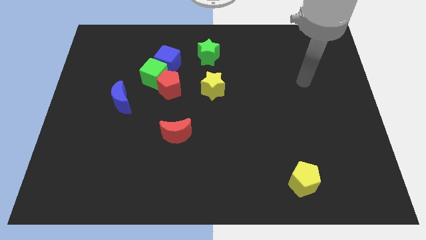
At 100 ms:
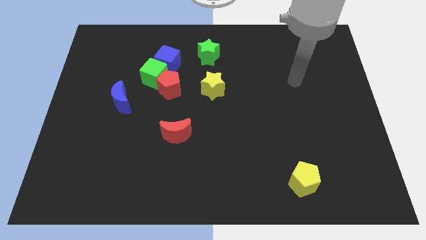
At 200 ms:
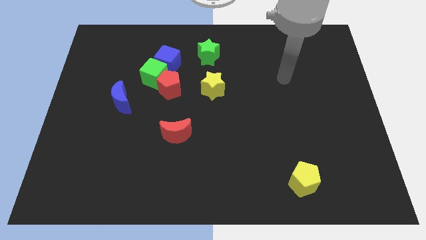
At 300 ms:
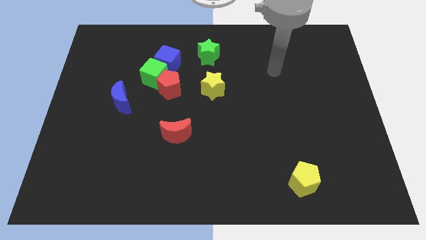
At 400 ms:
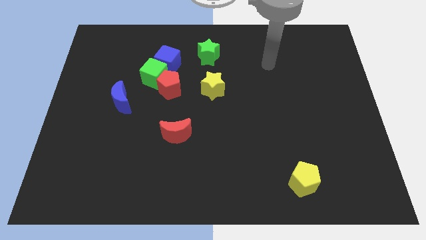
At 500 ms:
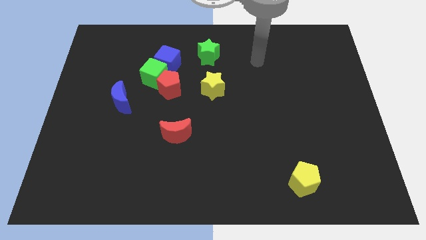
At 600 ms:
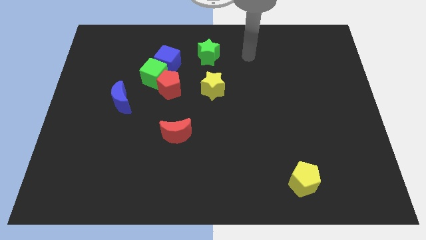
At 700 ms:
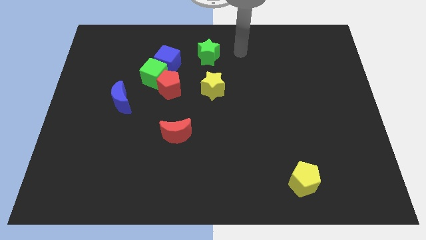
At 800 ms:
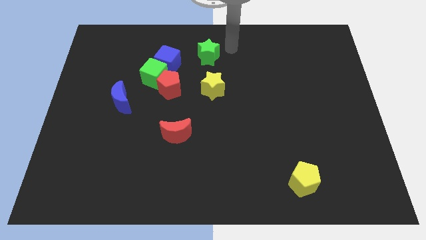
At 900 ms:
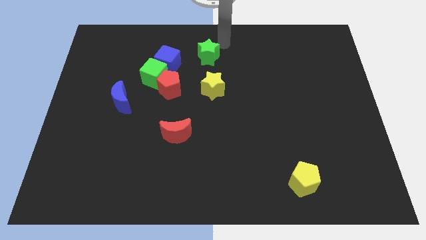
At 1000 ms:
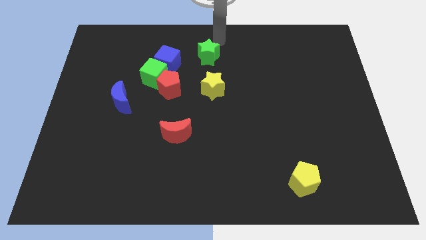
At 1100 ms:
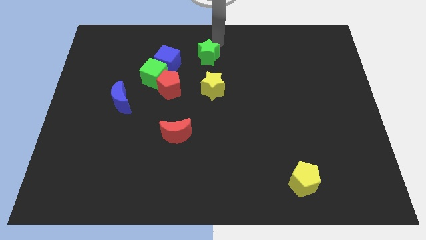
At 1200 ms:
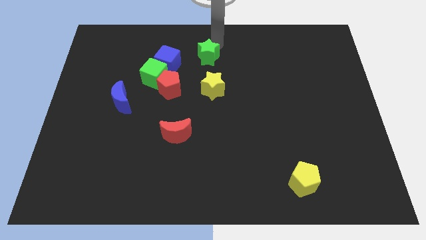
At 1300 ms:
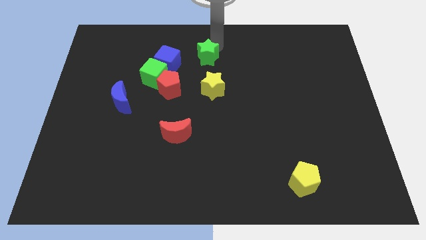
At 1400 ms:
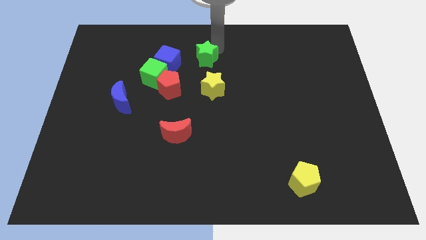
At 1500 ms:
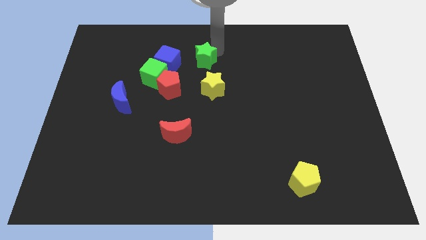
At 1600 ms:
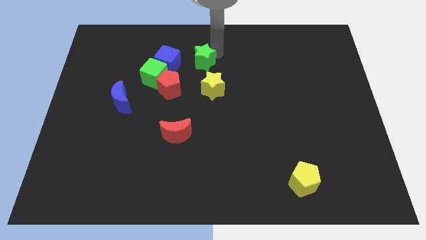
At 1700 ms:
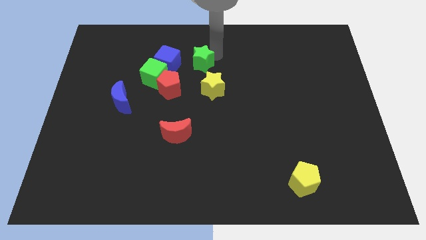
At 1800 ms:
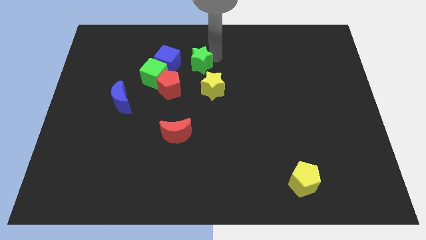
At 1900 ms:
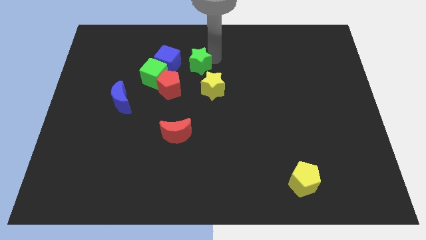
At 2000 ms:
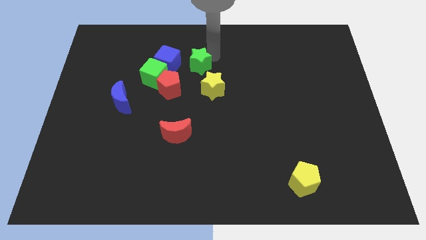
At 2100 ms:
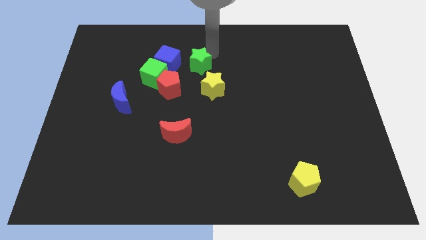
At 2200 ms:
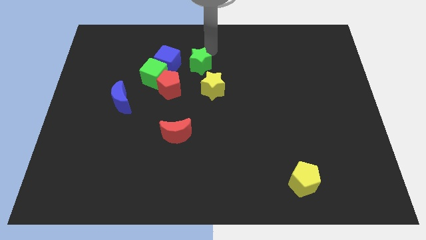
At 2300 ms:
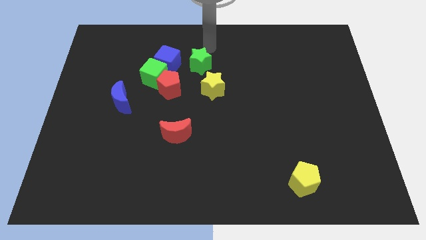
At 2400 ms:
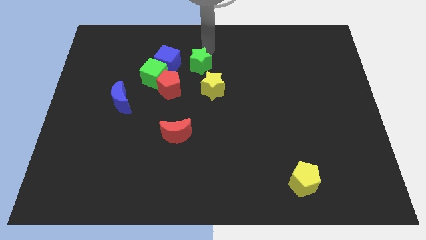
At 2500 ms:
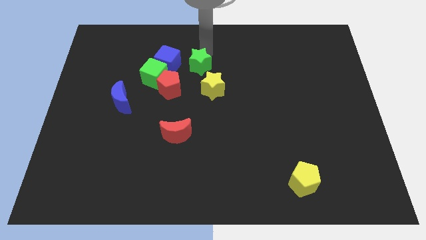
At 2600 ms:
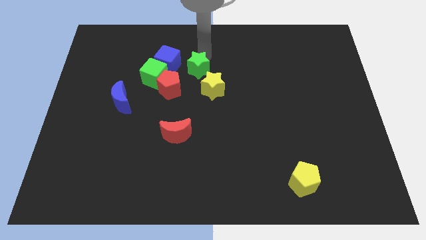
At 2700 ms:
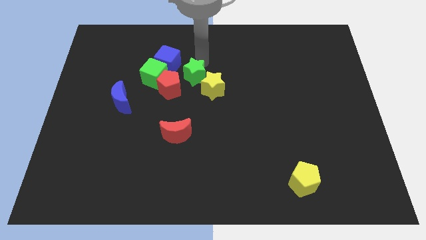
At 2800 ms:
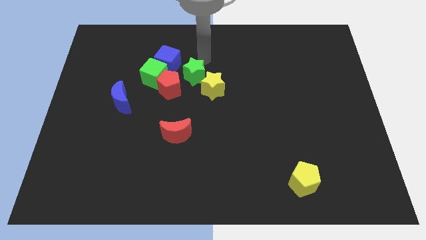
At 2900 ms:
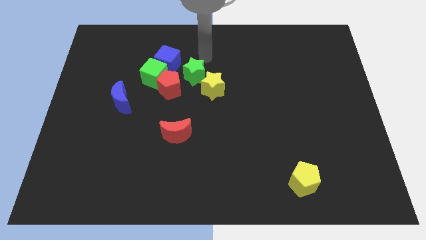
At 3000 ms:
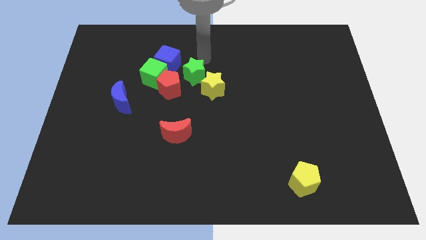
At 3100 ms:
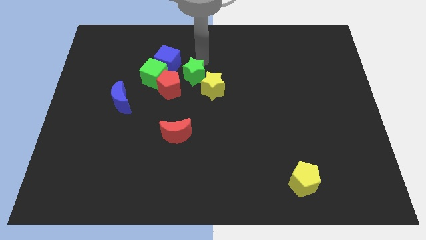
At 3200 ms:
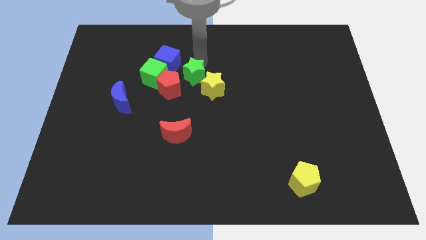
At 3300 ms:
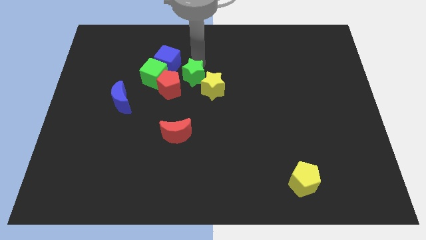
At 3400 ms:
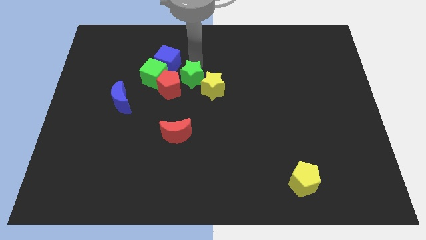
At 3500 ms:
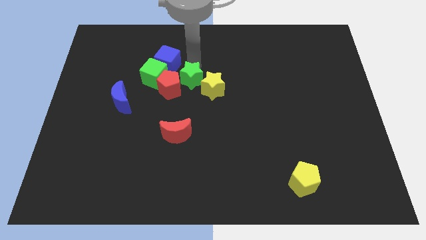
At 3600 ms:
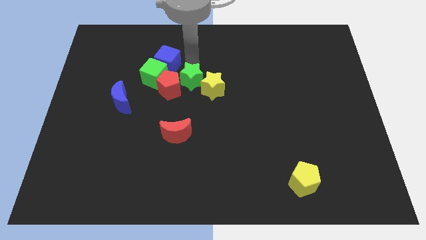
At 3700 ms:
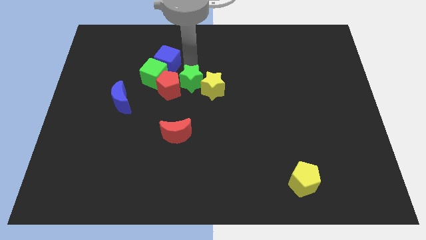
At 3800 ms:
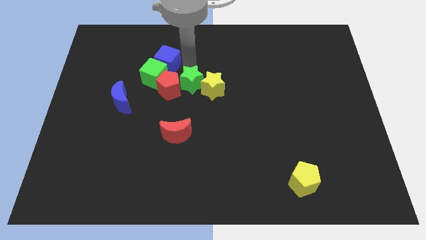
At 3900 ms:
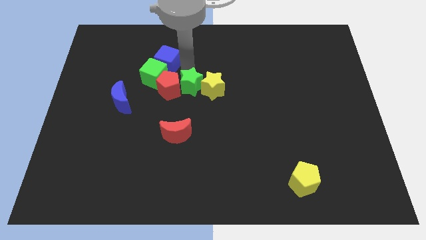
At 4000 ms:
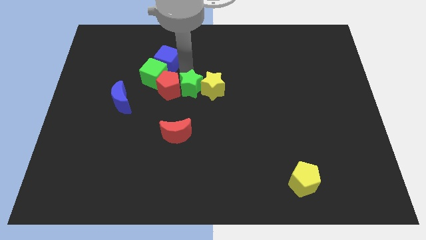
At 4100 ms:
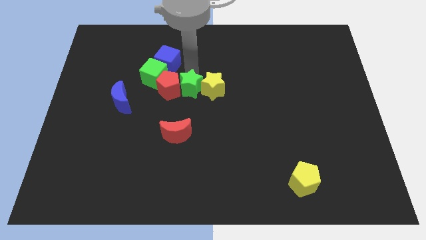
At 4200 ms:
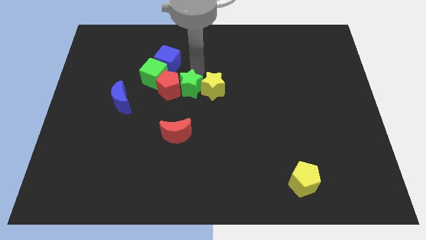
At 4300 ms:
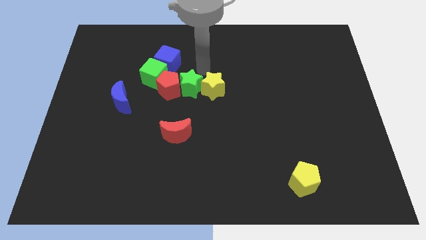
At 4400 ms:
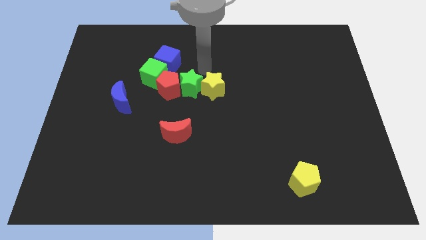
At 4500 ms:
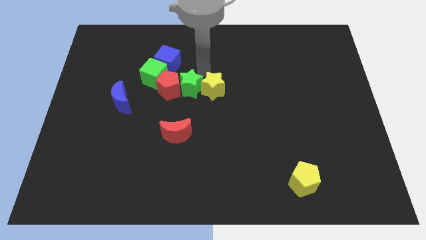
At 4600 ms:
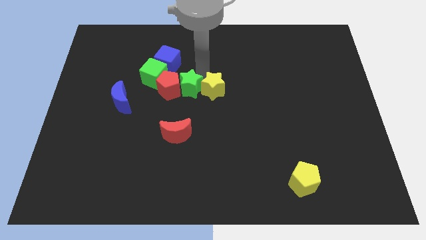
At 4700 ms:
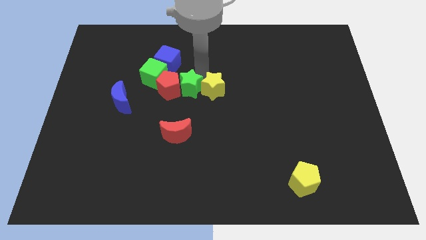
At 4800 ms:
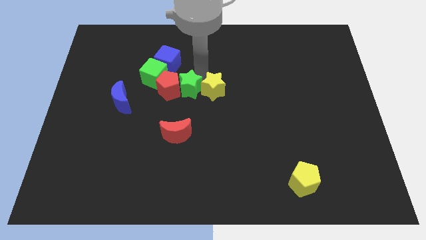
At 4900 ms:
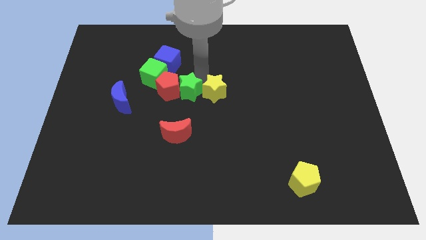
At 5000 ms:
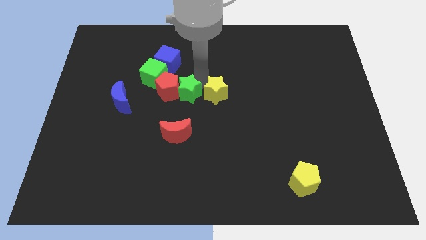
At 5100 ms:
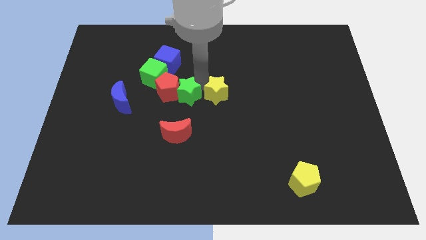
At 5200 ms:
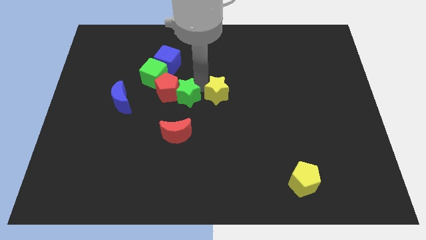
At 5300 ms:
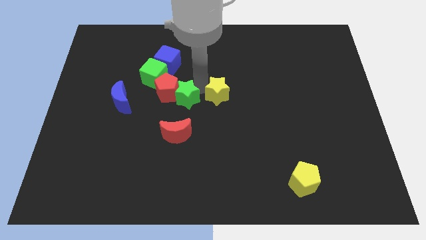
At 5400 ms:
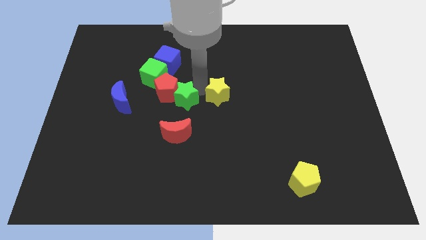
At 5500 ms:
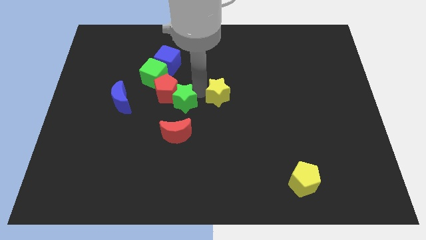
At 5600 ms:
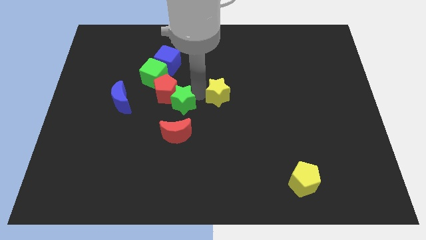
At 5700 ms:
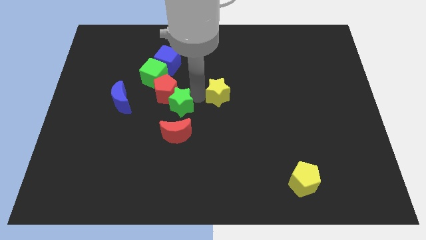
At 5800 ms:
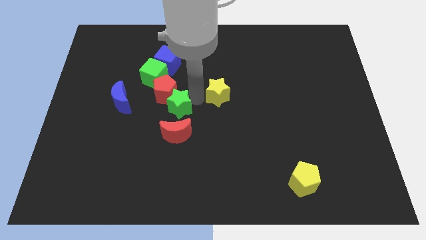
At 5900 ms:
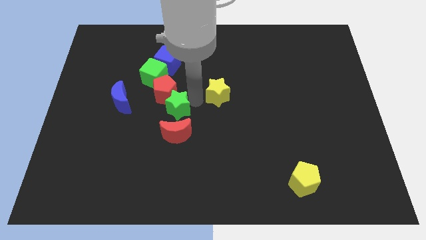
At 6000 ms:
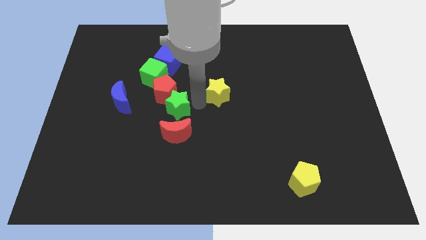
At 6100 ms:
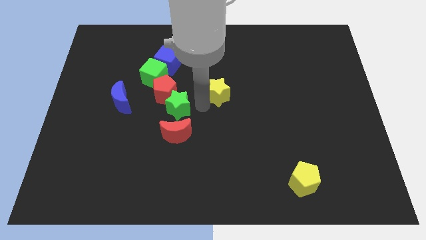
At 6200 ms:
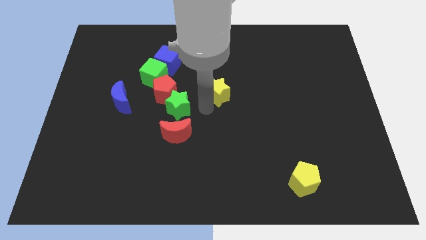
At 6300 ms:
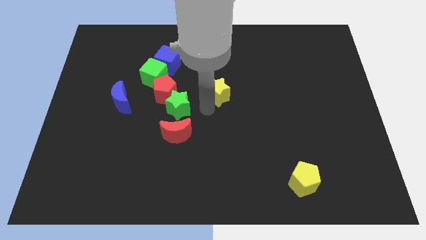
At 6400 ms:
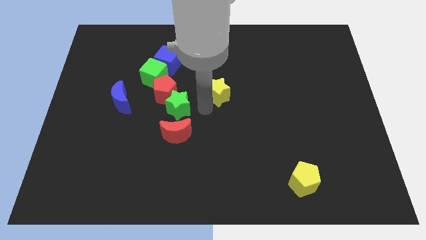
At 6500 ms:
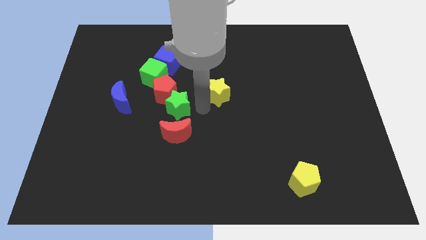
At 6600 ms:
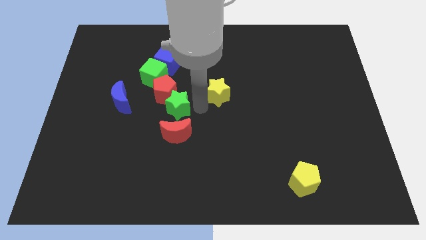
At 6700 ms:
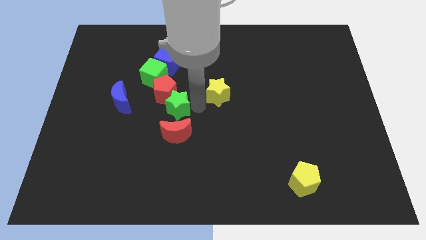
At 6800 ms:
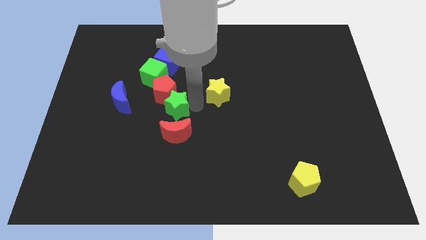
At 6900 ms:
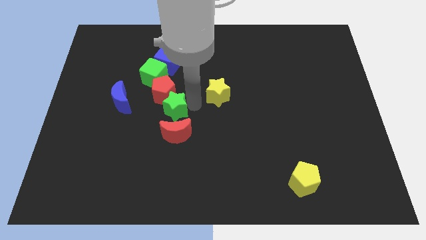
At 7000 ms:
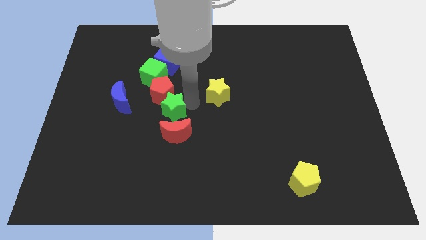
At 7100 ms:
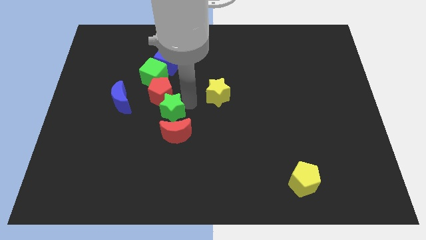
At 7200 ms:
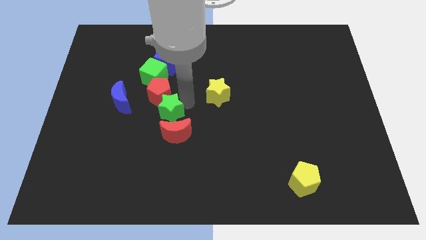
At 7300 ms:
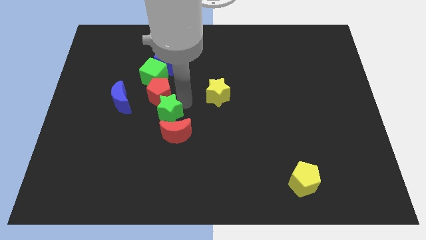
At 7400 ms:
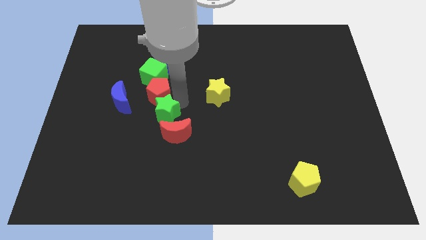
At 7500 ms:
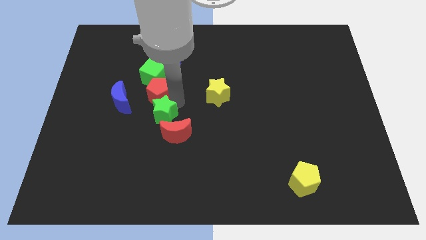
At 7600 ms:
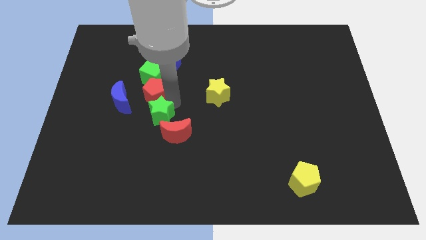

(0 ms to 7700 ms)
slide the green star down and then left

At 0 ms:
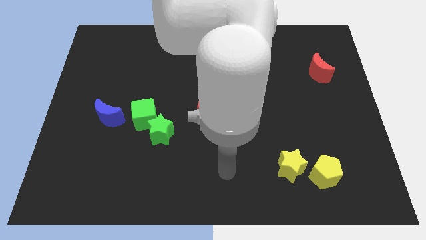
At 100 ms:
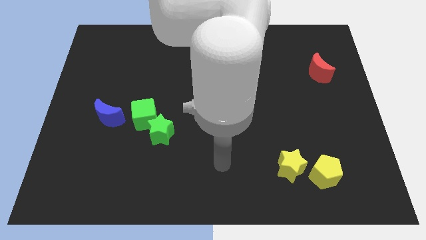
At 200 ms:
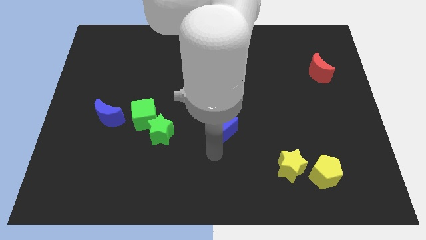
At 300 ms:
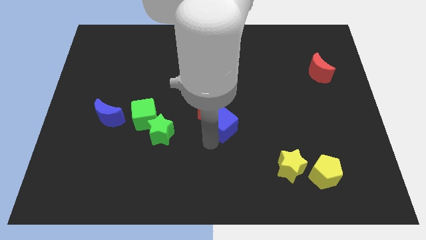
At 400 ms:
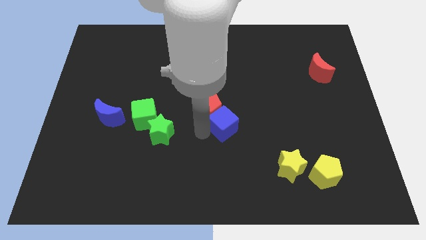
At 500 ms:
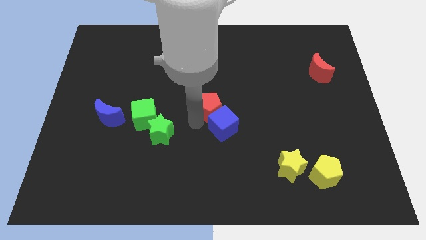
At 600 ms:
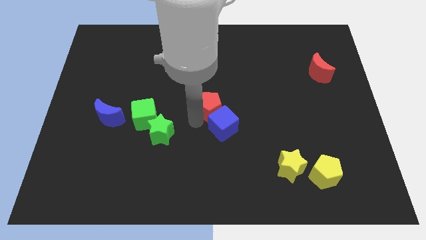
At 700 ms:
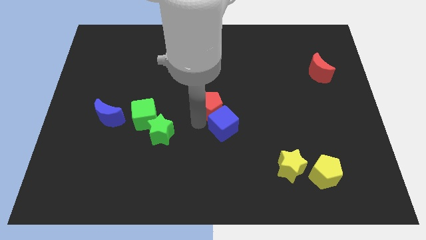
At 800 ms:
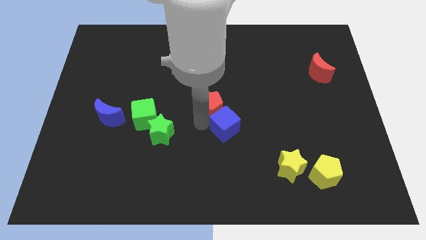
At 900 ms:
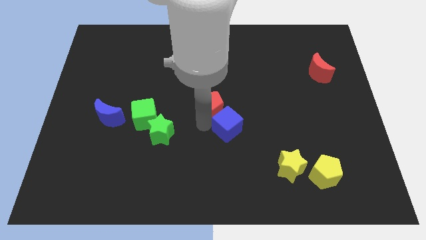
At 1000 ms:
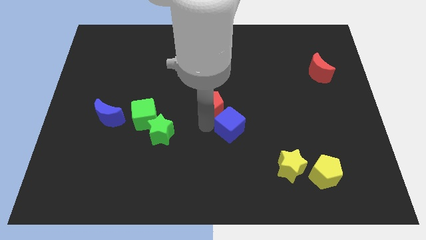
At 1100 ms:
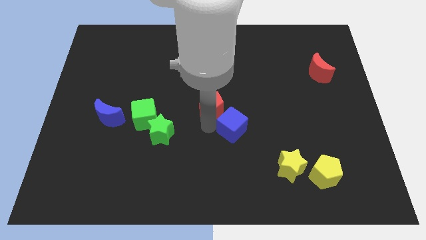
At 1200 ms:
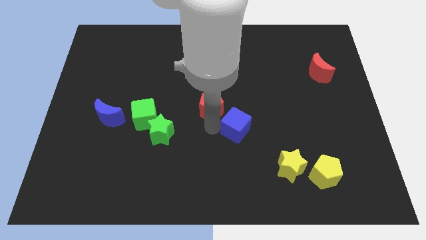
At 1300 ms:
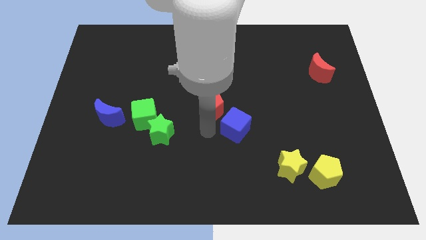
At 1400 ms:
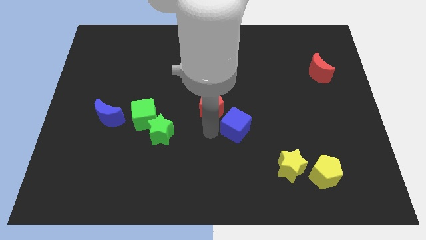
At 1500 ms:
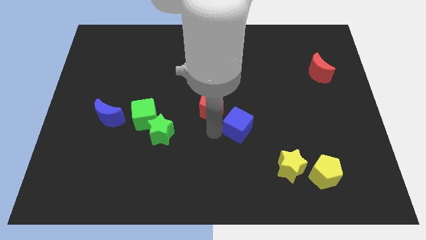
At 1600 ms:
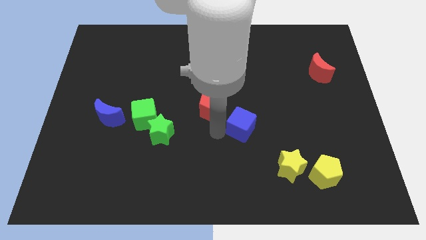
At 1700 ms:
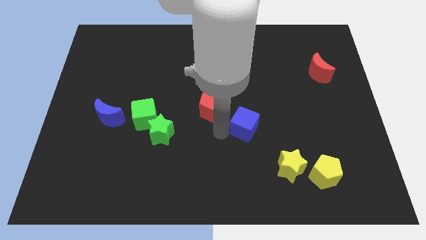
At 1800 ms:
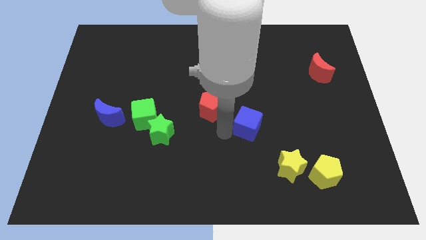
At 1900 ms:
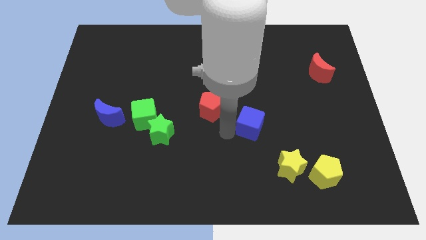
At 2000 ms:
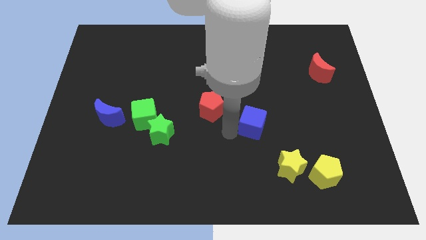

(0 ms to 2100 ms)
push the blue cube a little to the right
